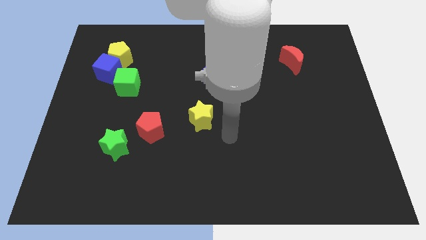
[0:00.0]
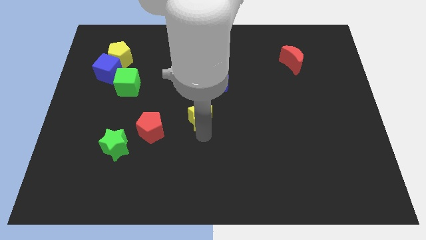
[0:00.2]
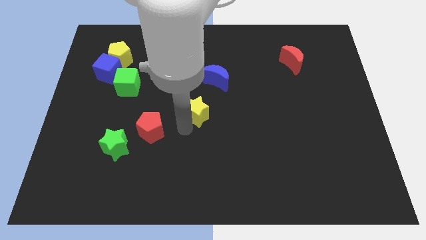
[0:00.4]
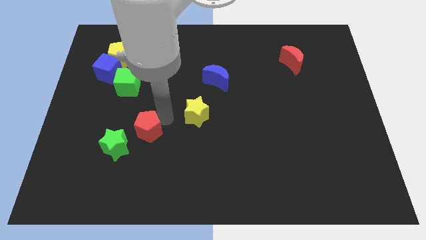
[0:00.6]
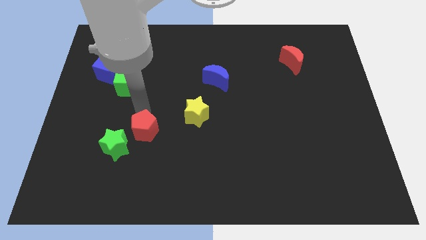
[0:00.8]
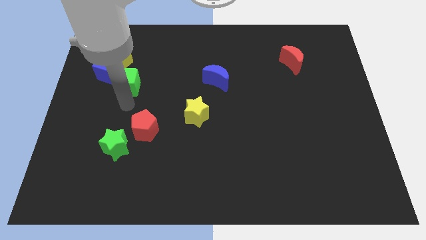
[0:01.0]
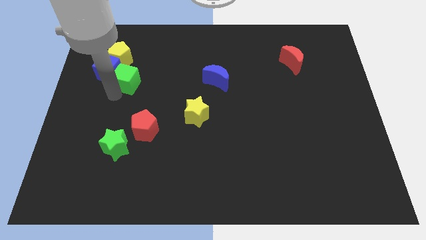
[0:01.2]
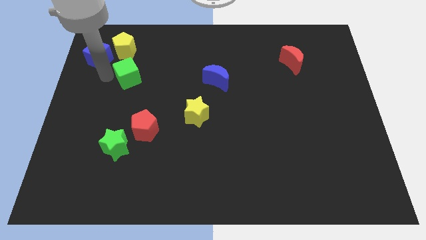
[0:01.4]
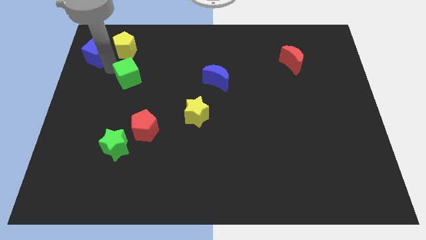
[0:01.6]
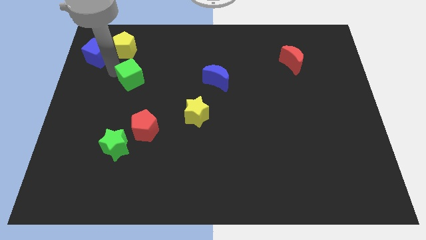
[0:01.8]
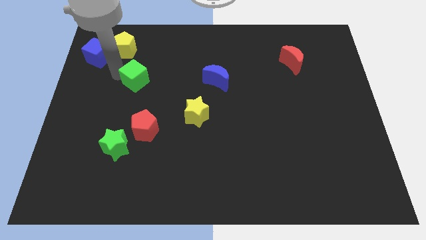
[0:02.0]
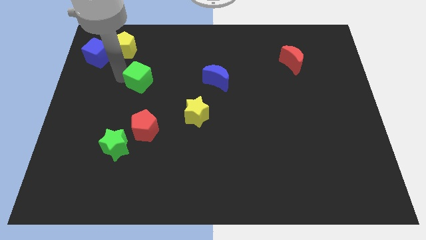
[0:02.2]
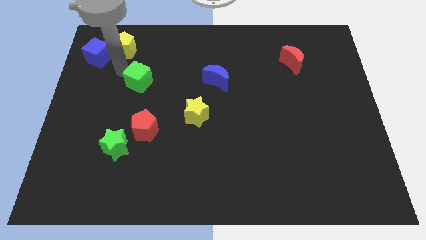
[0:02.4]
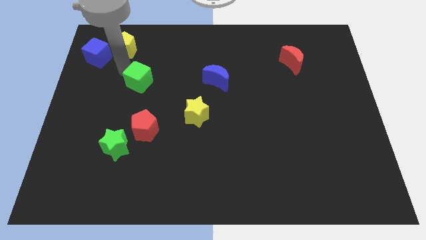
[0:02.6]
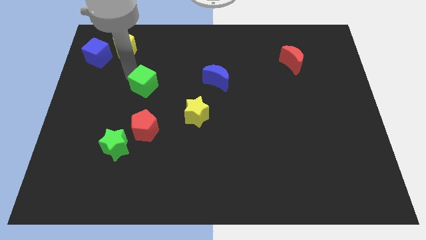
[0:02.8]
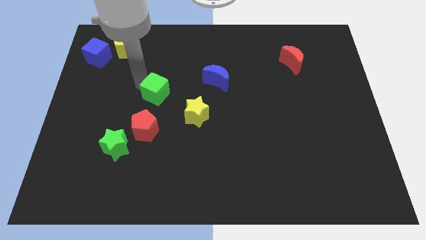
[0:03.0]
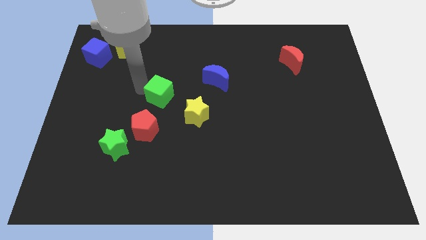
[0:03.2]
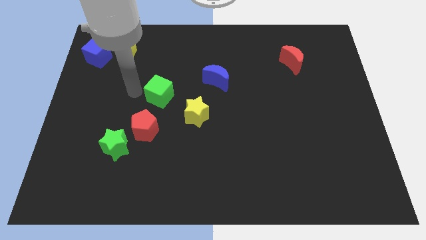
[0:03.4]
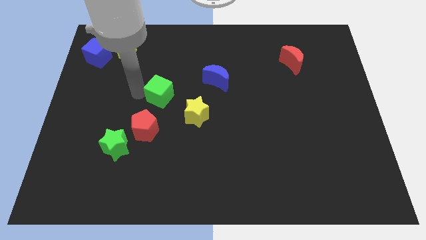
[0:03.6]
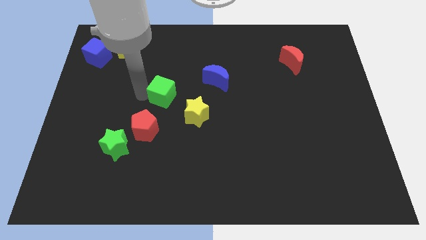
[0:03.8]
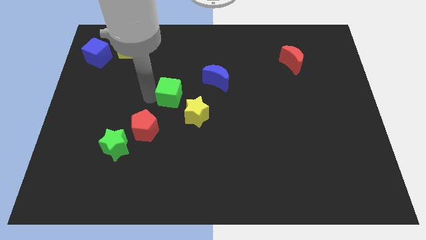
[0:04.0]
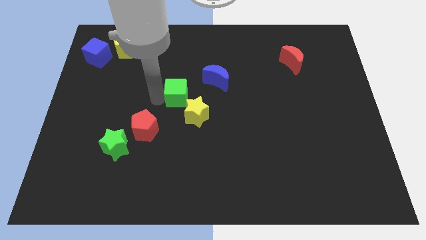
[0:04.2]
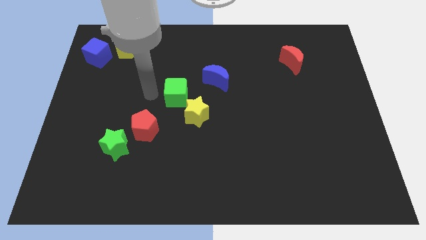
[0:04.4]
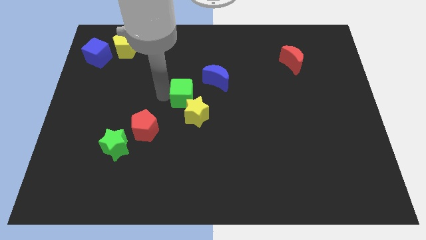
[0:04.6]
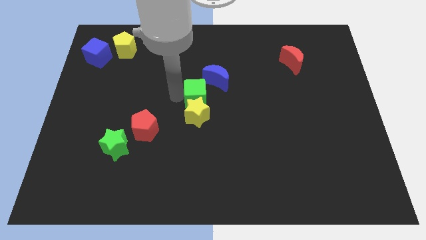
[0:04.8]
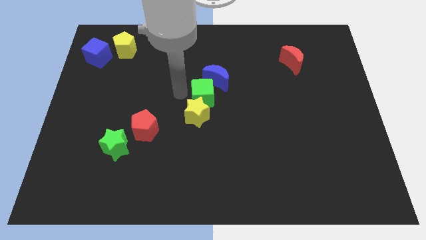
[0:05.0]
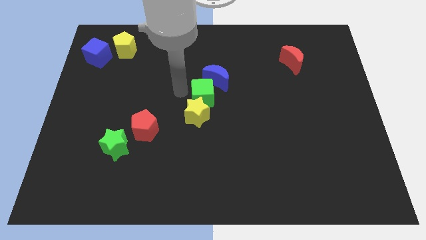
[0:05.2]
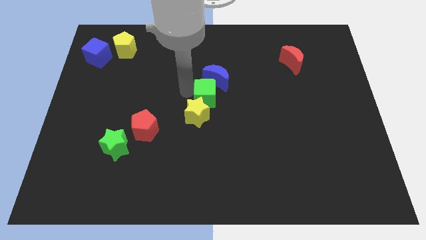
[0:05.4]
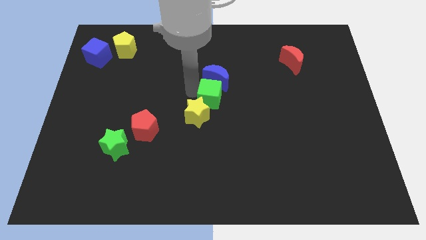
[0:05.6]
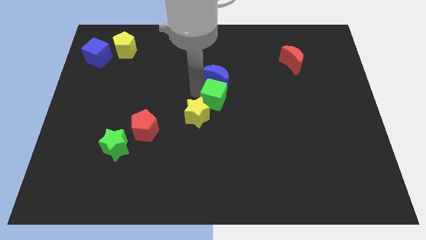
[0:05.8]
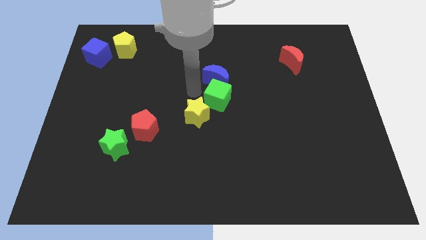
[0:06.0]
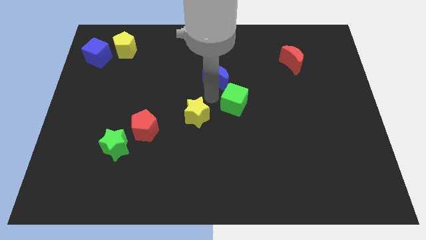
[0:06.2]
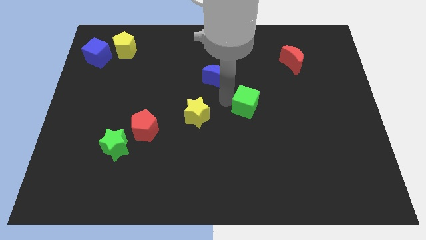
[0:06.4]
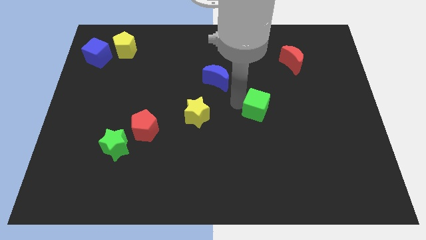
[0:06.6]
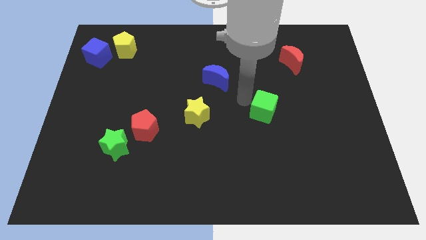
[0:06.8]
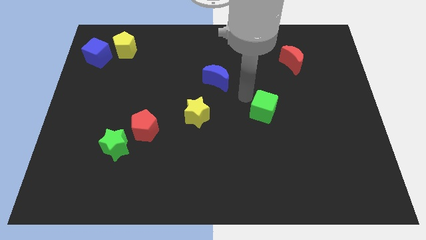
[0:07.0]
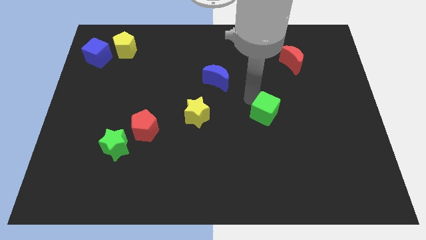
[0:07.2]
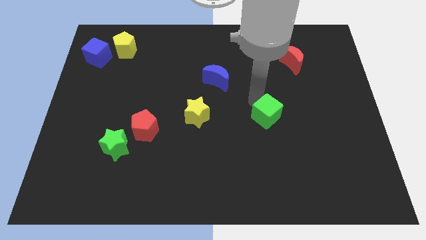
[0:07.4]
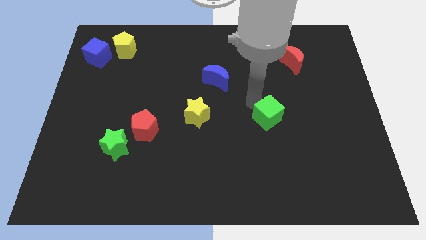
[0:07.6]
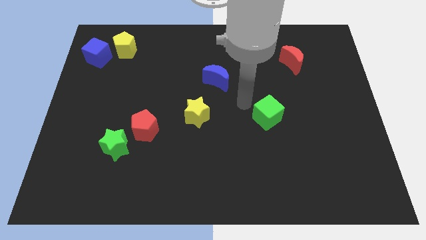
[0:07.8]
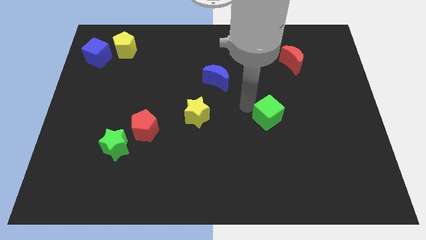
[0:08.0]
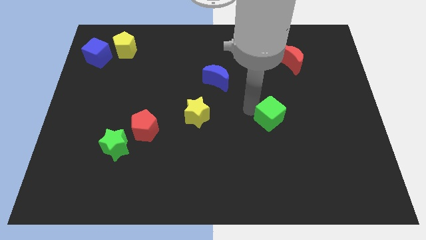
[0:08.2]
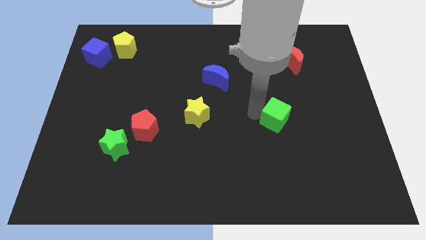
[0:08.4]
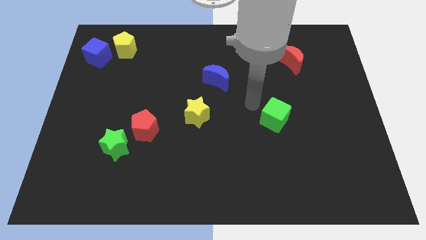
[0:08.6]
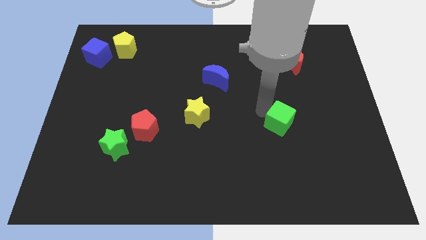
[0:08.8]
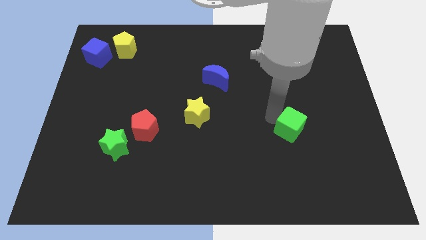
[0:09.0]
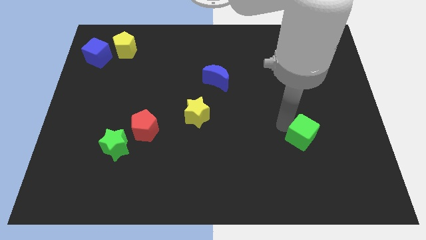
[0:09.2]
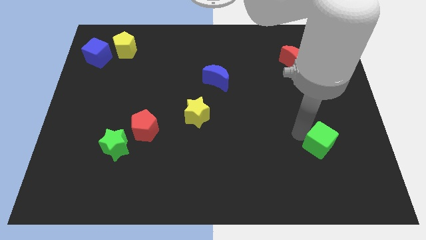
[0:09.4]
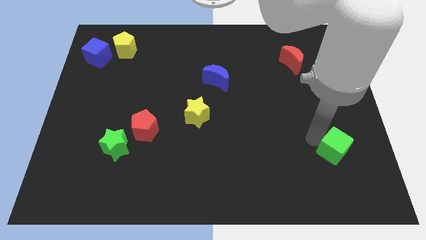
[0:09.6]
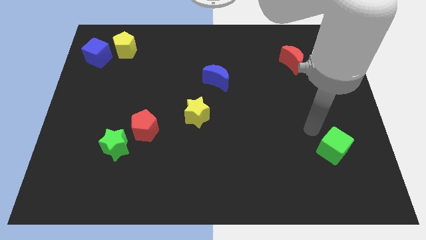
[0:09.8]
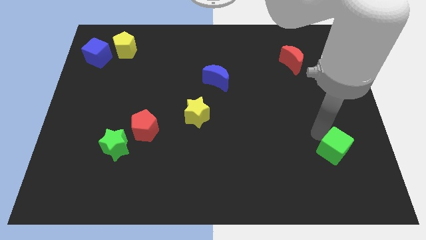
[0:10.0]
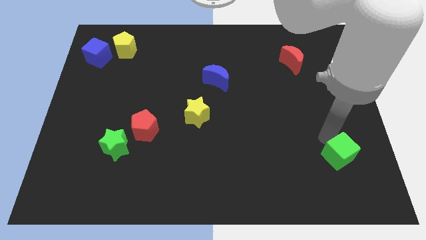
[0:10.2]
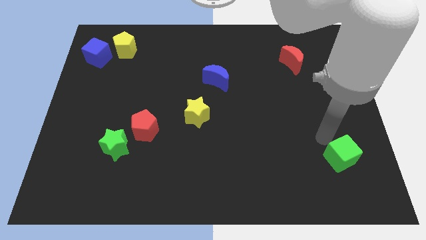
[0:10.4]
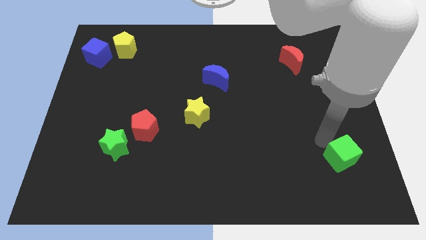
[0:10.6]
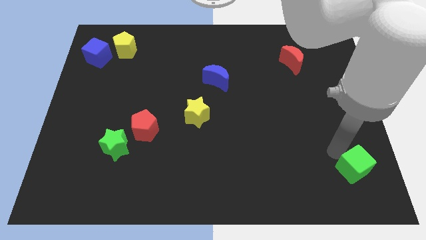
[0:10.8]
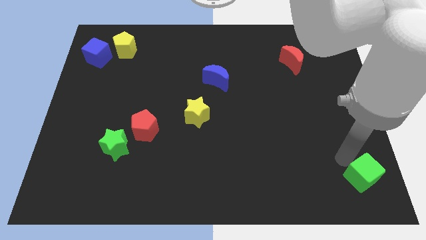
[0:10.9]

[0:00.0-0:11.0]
put the green cube to the bottom right corner
